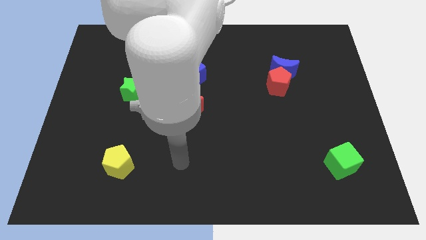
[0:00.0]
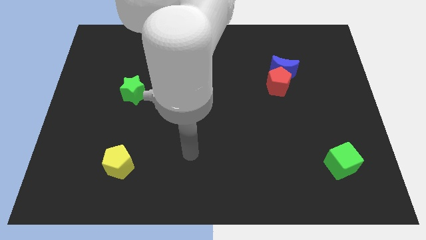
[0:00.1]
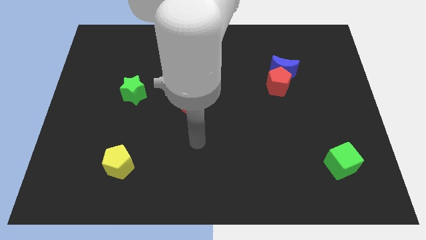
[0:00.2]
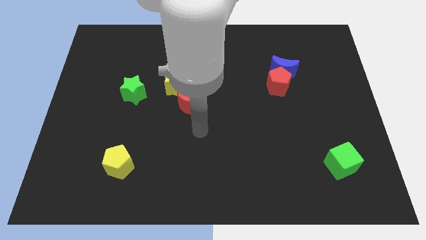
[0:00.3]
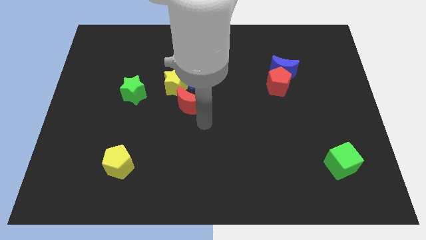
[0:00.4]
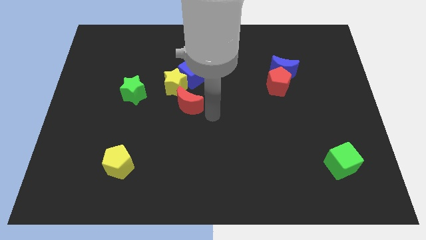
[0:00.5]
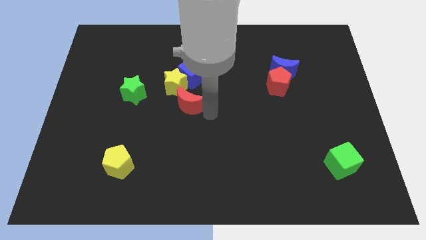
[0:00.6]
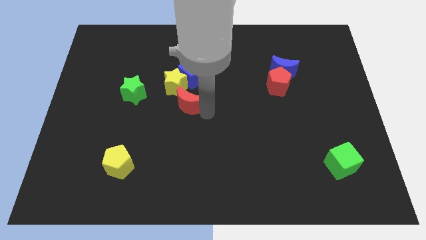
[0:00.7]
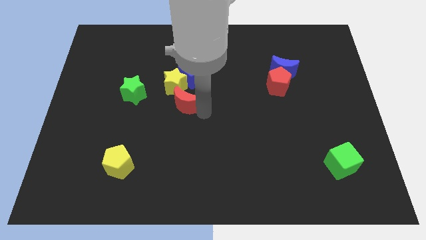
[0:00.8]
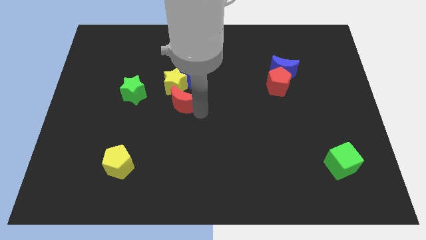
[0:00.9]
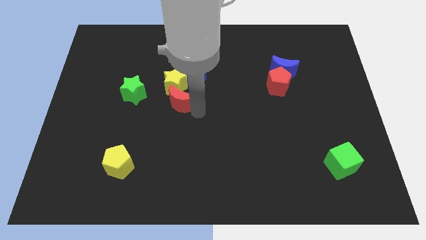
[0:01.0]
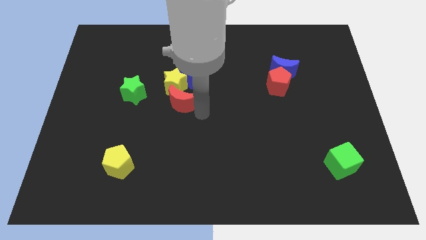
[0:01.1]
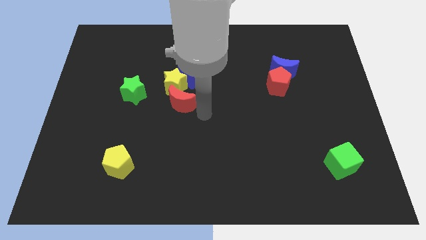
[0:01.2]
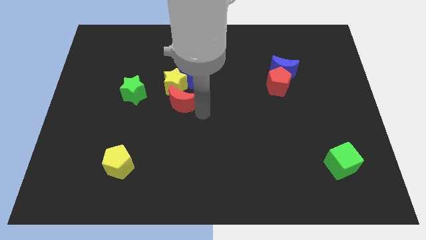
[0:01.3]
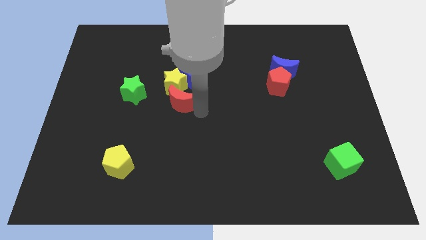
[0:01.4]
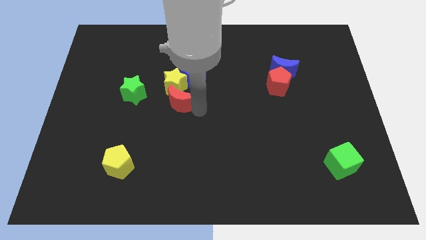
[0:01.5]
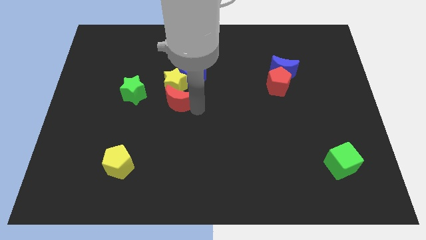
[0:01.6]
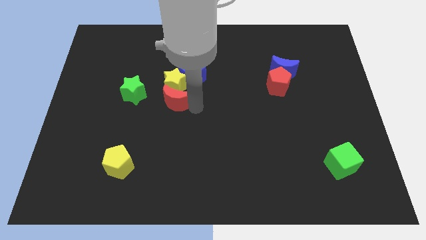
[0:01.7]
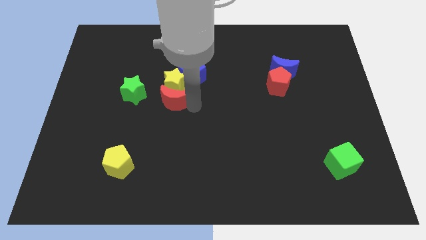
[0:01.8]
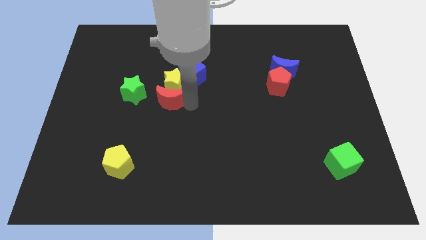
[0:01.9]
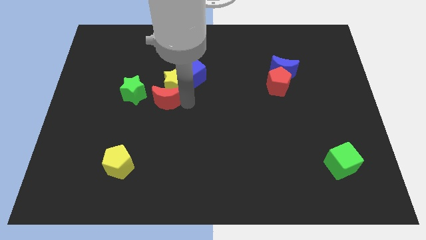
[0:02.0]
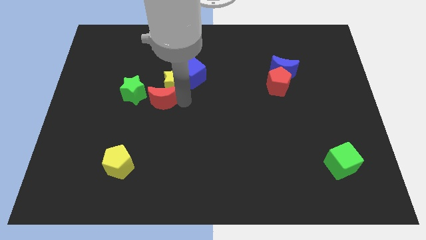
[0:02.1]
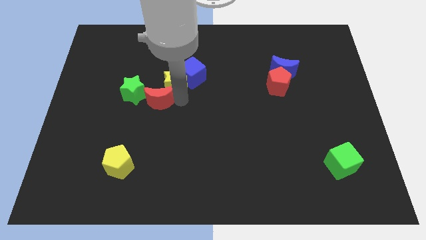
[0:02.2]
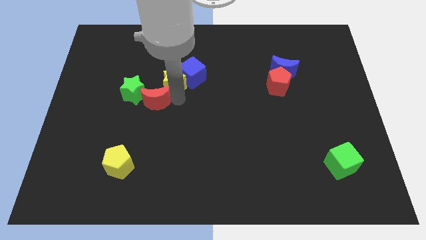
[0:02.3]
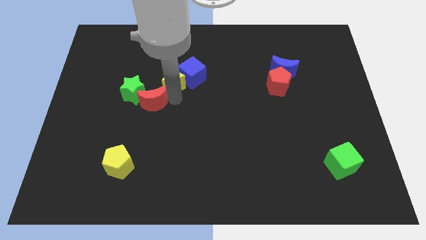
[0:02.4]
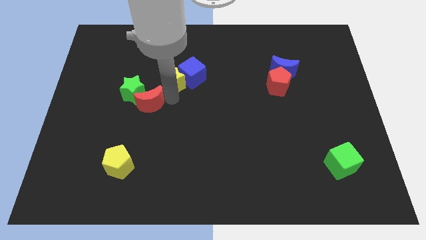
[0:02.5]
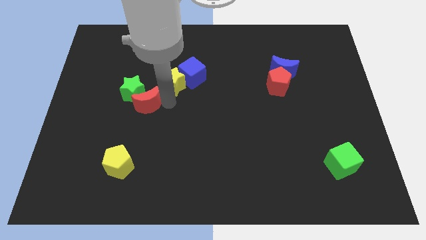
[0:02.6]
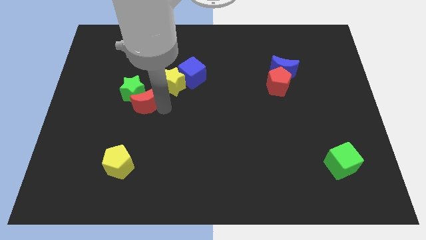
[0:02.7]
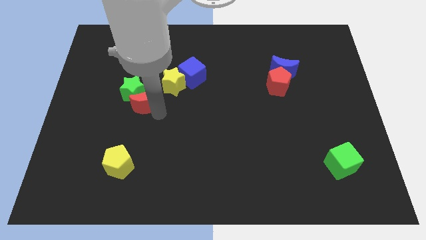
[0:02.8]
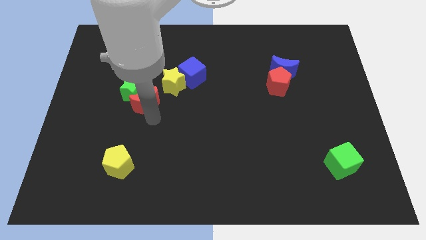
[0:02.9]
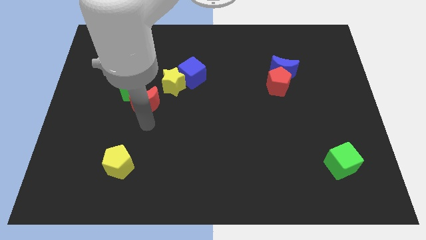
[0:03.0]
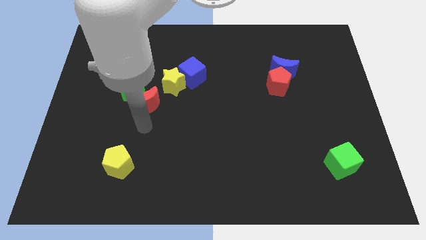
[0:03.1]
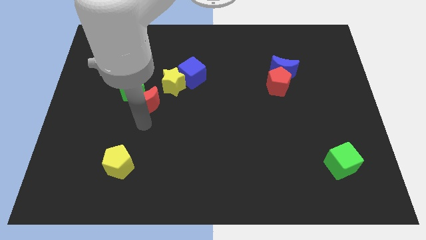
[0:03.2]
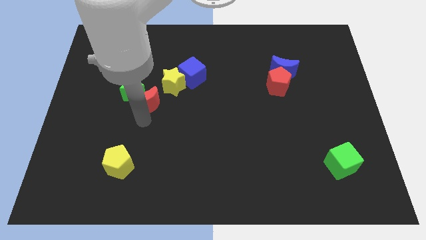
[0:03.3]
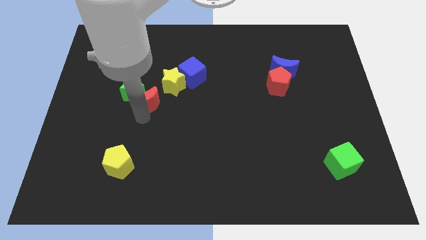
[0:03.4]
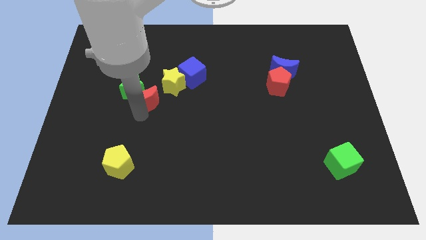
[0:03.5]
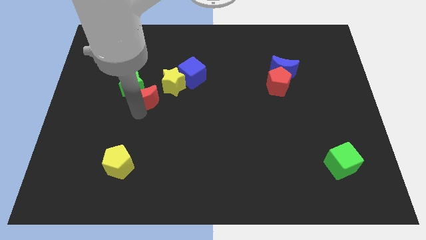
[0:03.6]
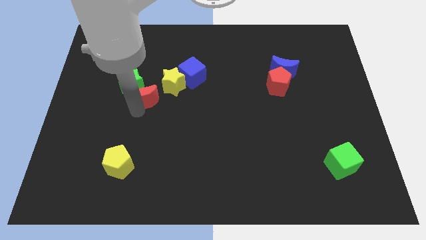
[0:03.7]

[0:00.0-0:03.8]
slightly push the red moon up and left diagonally

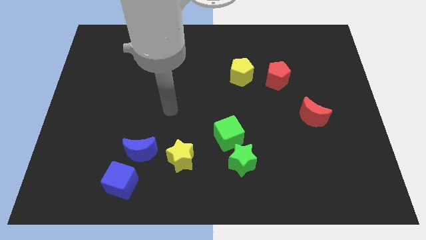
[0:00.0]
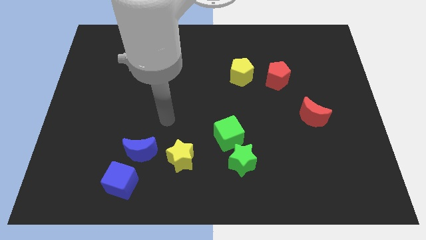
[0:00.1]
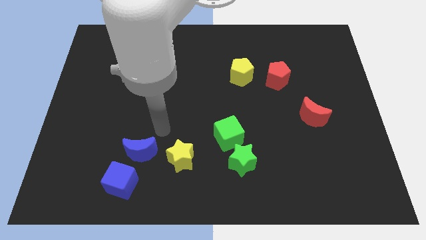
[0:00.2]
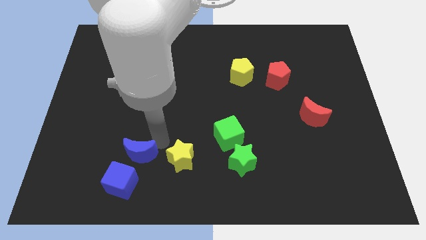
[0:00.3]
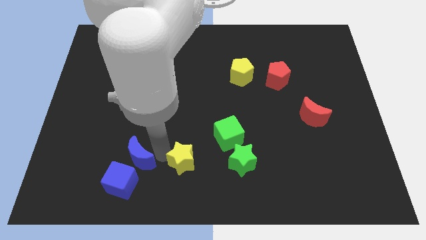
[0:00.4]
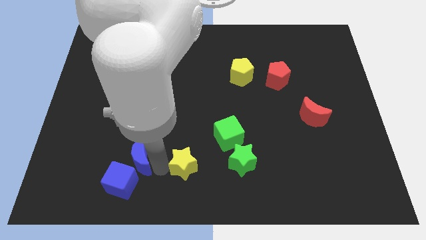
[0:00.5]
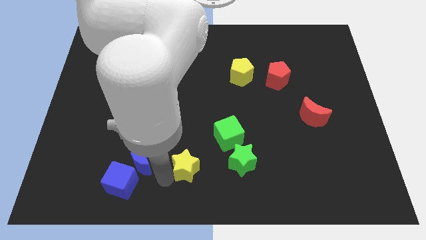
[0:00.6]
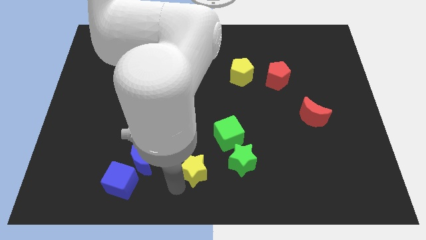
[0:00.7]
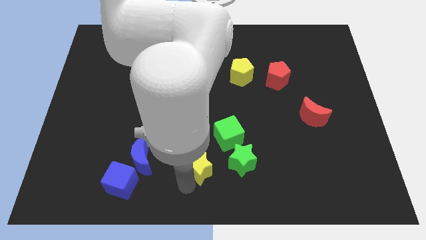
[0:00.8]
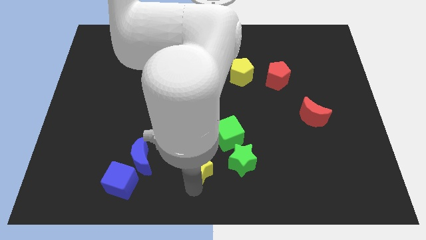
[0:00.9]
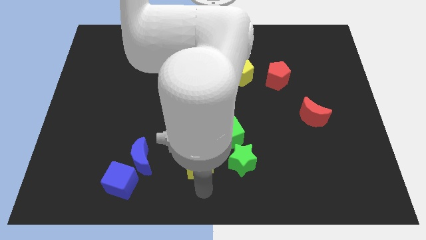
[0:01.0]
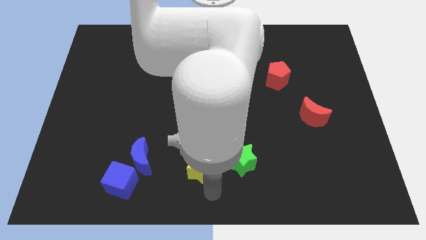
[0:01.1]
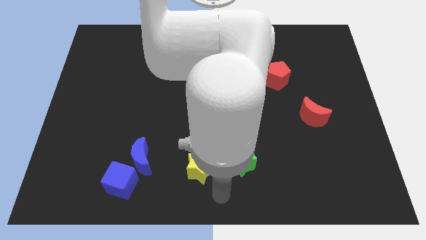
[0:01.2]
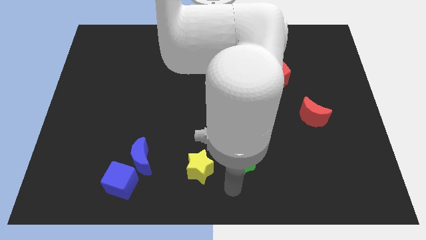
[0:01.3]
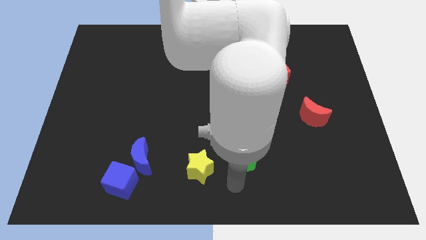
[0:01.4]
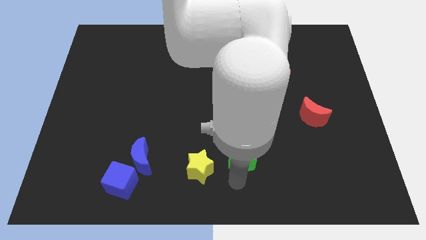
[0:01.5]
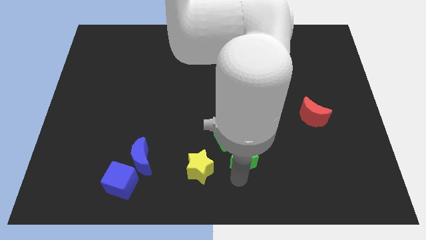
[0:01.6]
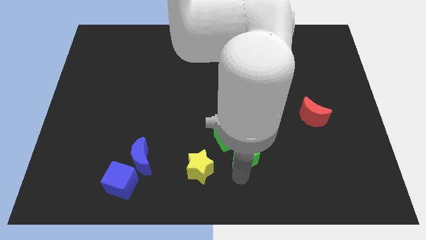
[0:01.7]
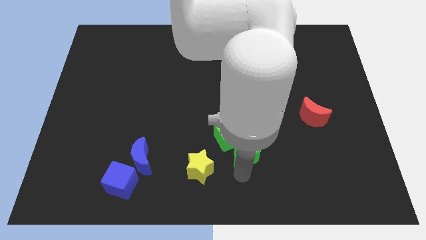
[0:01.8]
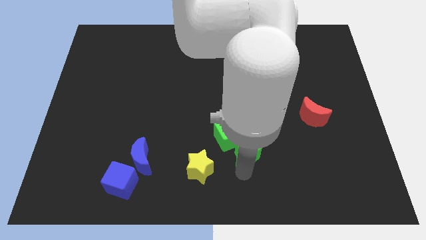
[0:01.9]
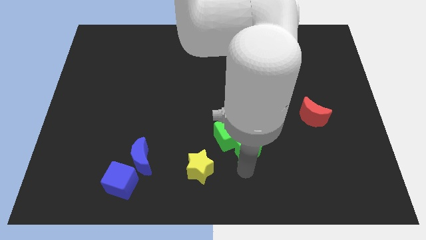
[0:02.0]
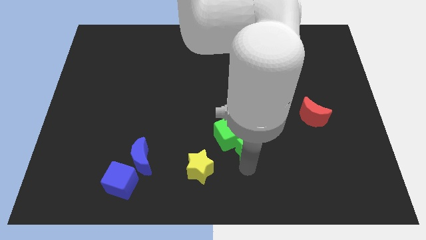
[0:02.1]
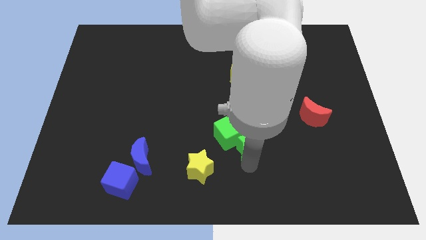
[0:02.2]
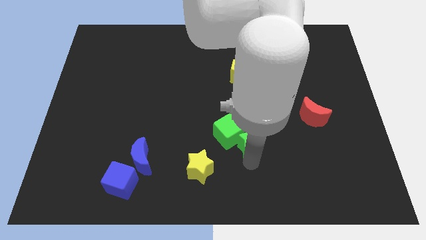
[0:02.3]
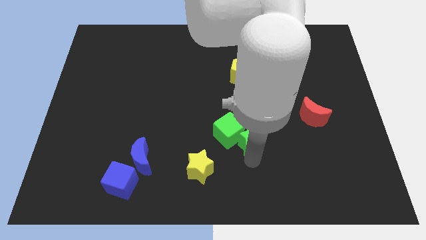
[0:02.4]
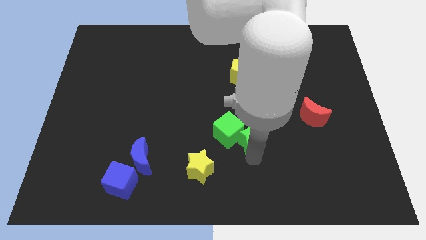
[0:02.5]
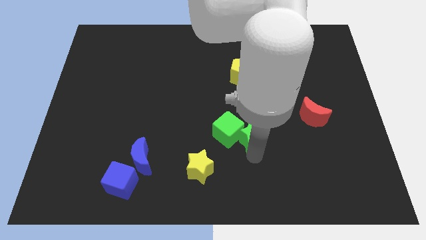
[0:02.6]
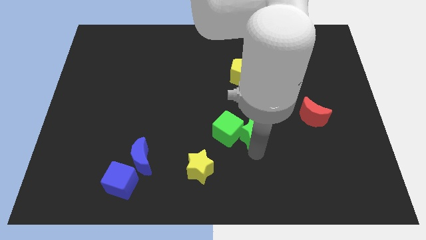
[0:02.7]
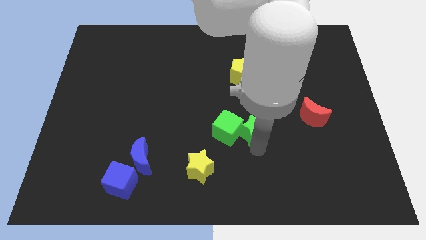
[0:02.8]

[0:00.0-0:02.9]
slide the green star somewhat upwards

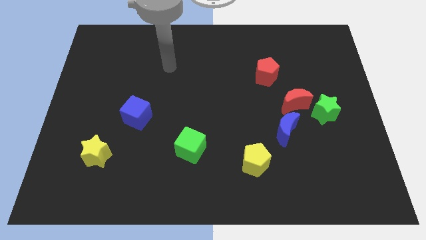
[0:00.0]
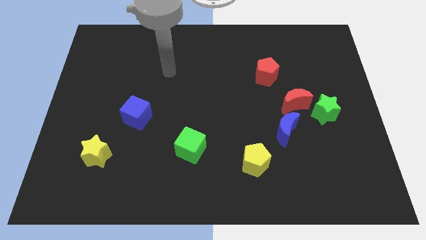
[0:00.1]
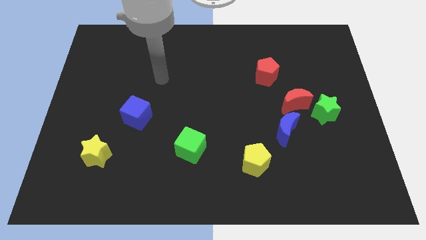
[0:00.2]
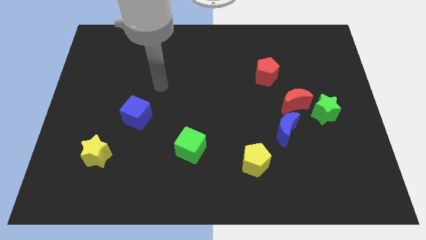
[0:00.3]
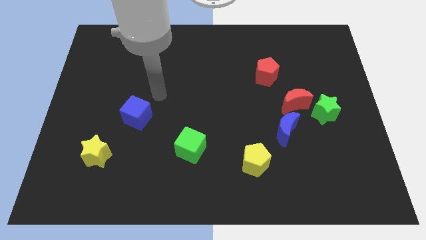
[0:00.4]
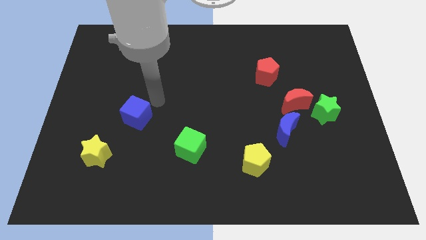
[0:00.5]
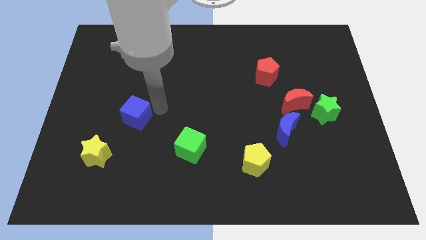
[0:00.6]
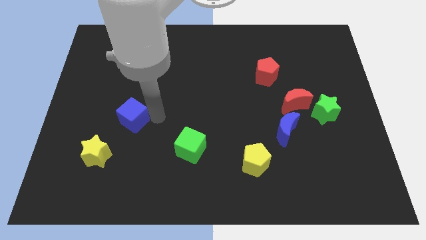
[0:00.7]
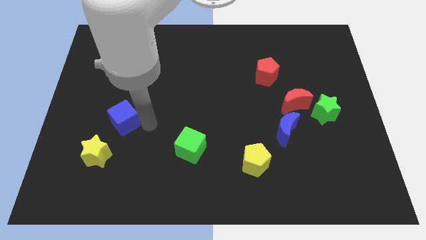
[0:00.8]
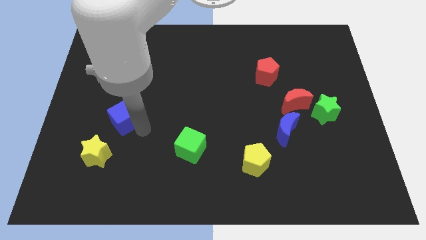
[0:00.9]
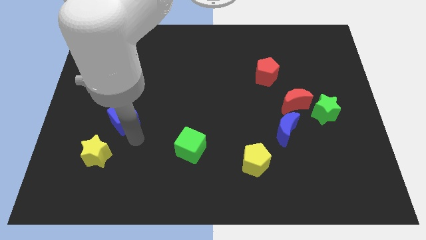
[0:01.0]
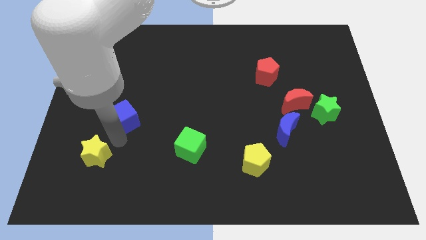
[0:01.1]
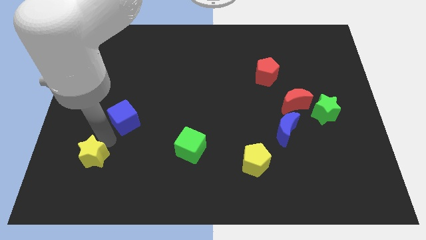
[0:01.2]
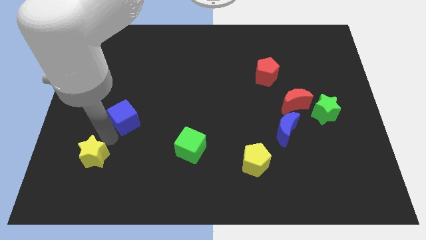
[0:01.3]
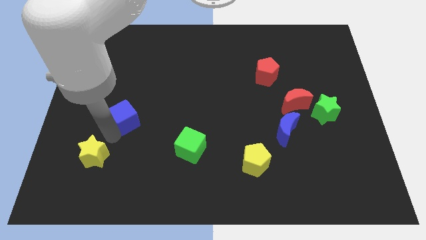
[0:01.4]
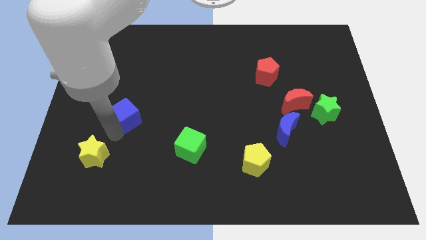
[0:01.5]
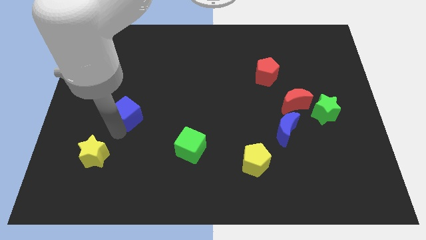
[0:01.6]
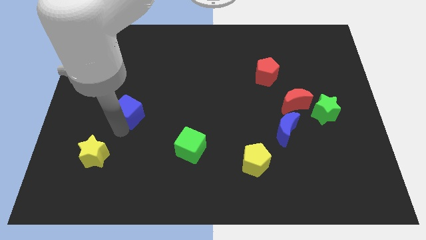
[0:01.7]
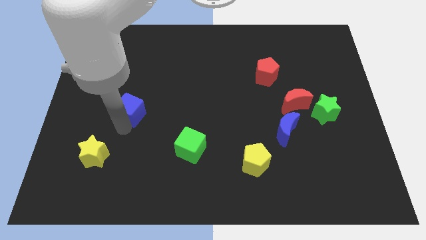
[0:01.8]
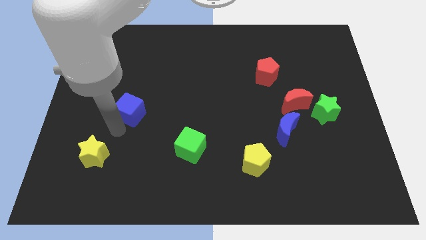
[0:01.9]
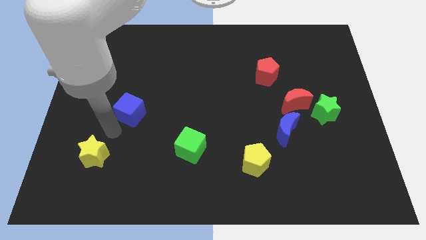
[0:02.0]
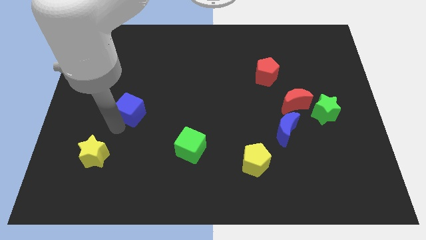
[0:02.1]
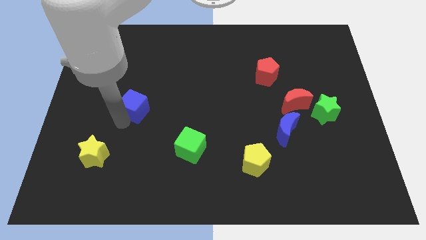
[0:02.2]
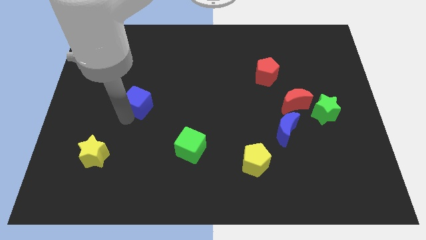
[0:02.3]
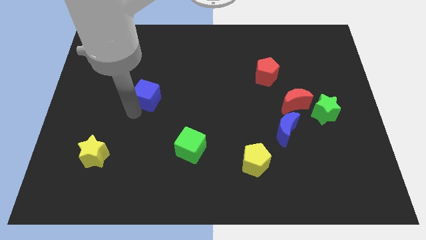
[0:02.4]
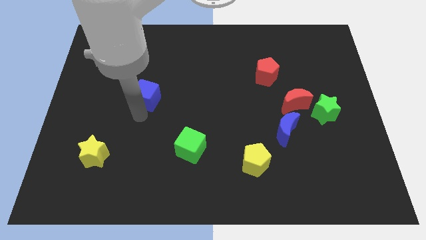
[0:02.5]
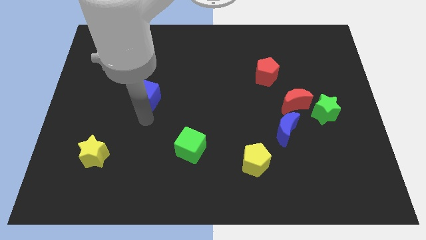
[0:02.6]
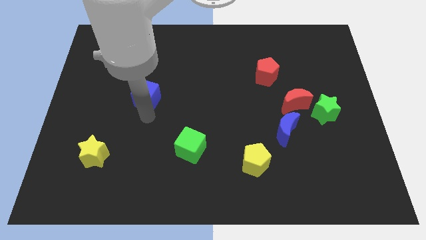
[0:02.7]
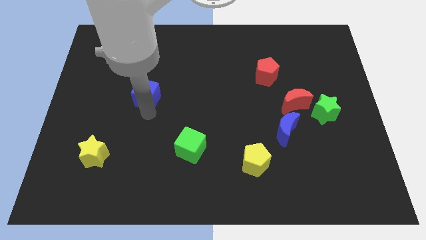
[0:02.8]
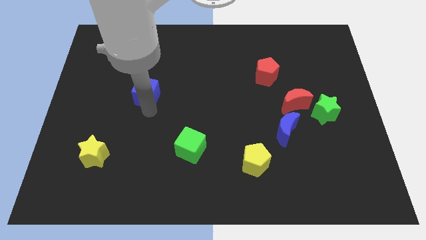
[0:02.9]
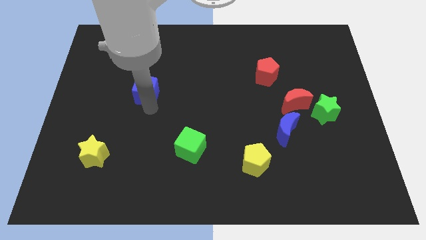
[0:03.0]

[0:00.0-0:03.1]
slide the blue cube upwards slightly
